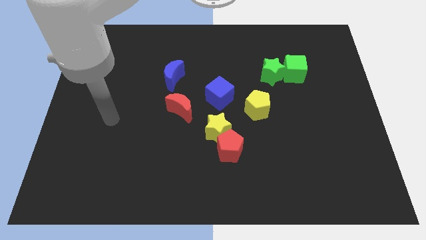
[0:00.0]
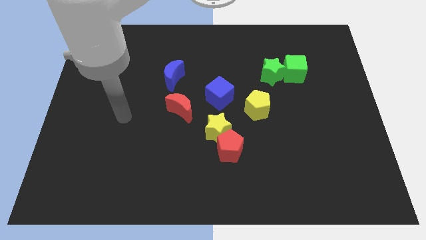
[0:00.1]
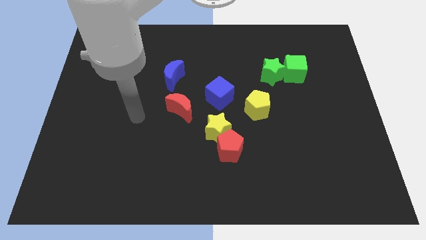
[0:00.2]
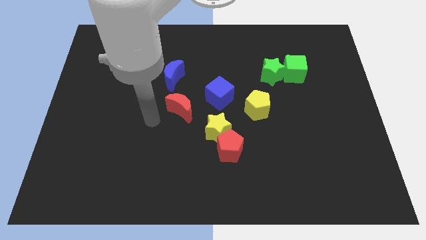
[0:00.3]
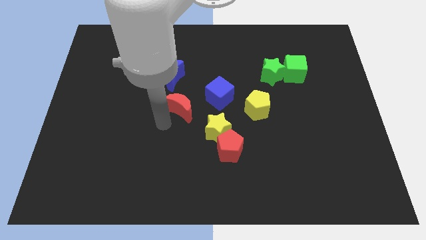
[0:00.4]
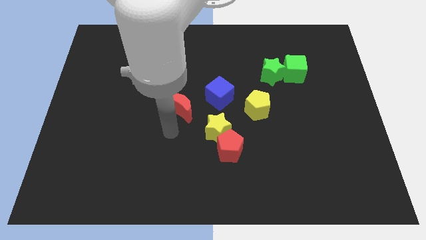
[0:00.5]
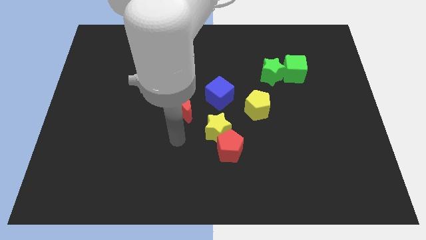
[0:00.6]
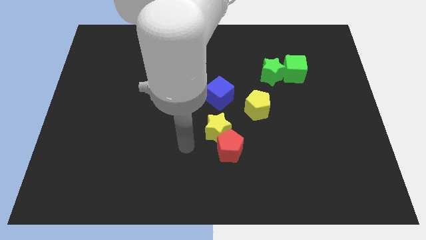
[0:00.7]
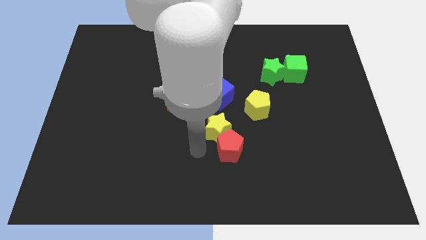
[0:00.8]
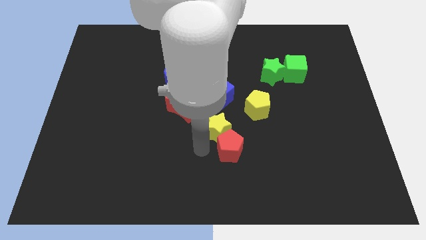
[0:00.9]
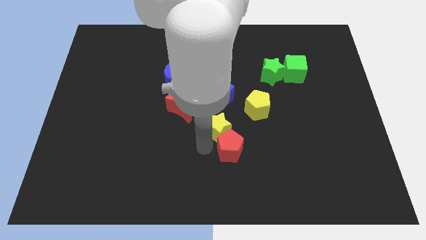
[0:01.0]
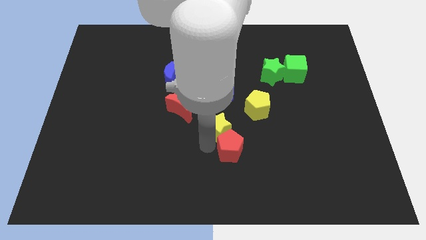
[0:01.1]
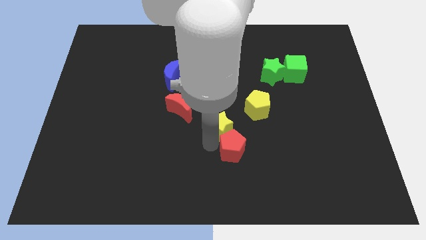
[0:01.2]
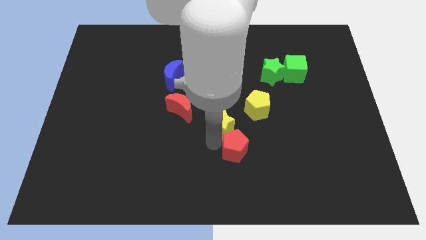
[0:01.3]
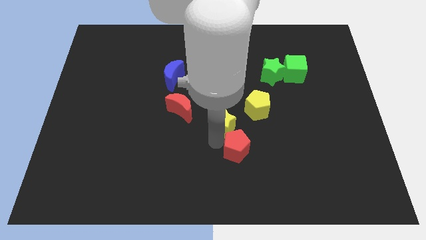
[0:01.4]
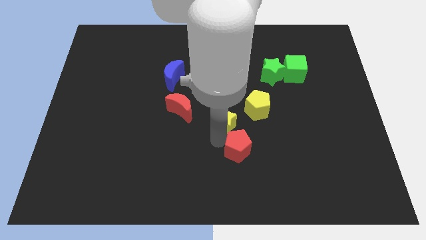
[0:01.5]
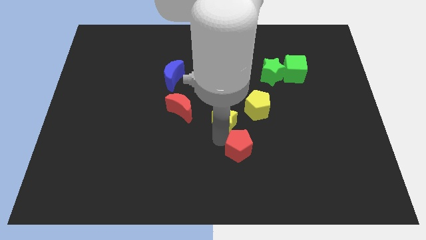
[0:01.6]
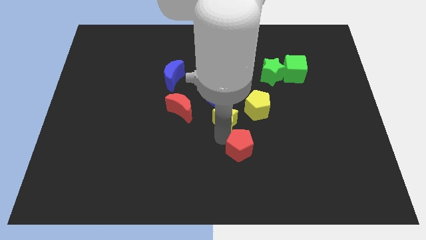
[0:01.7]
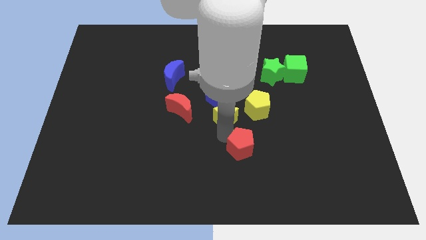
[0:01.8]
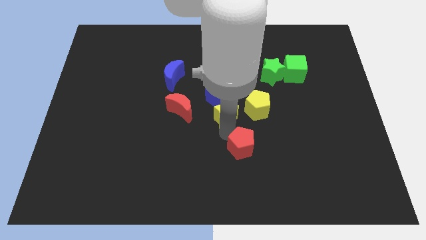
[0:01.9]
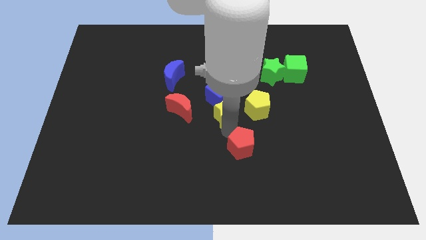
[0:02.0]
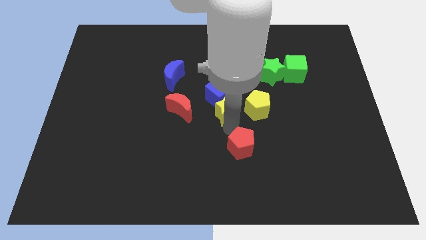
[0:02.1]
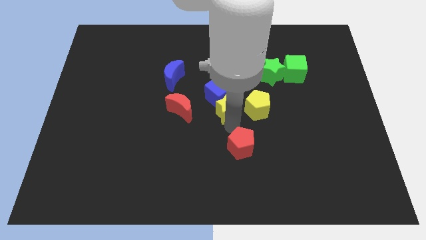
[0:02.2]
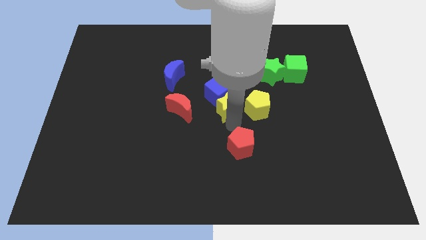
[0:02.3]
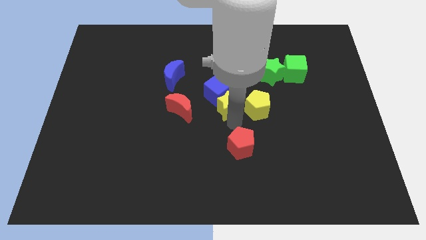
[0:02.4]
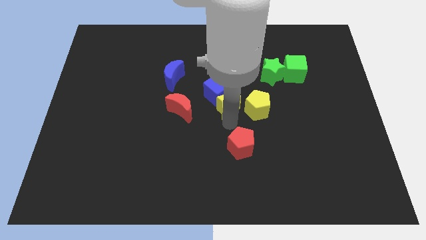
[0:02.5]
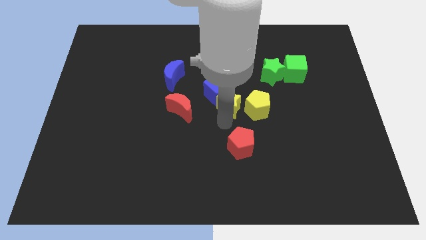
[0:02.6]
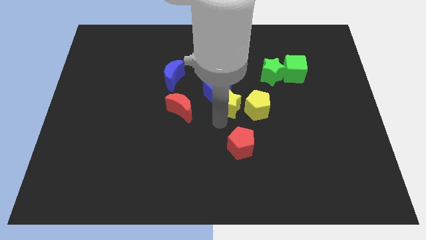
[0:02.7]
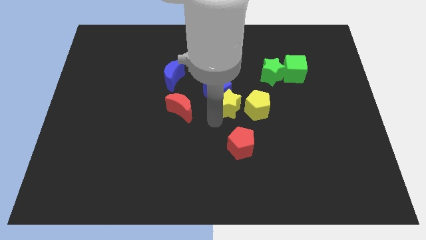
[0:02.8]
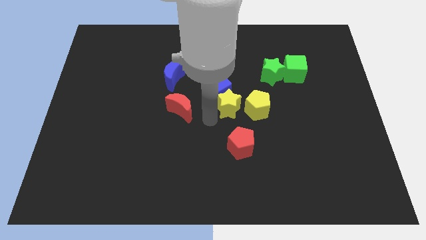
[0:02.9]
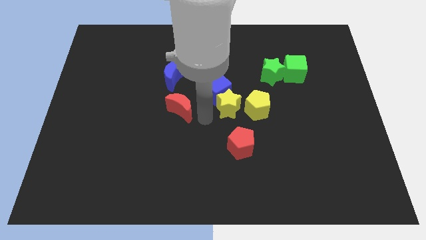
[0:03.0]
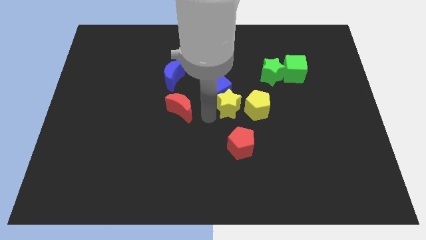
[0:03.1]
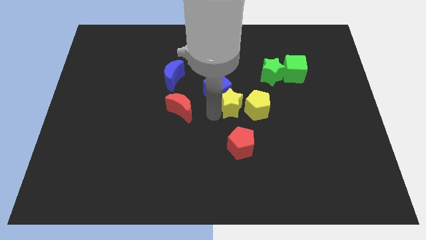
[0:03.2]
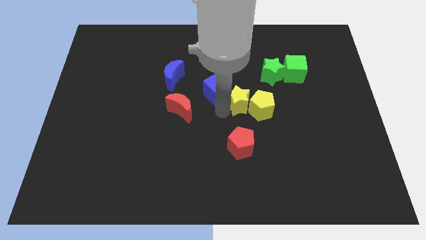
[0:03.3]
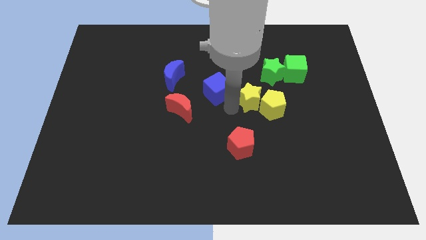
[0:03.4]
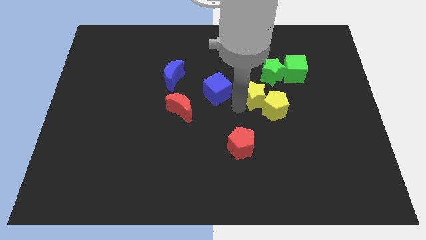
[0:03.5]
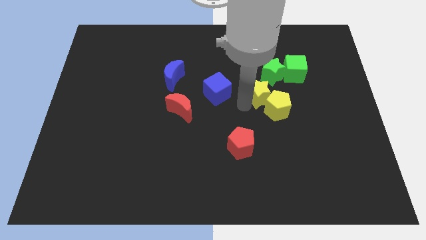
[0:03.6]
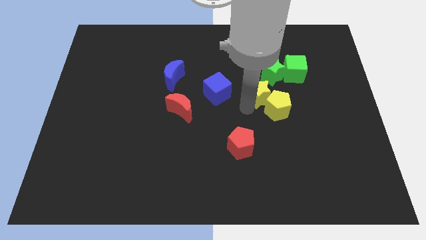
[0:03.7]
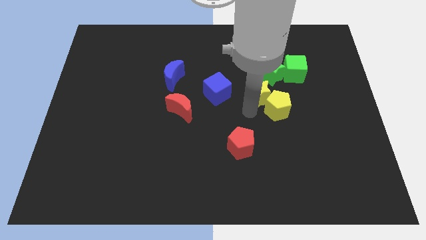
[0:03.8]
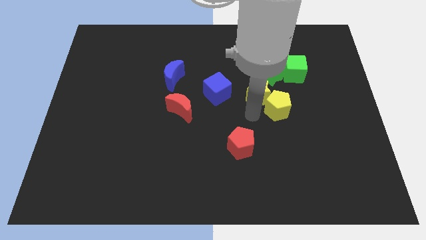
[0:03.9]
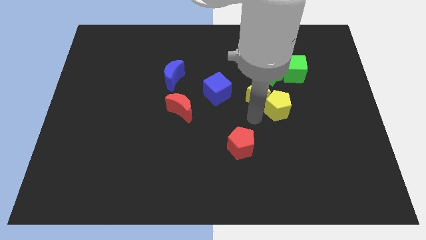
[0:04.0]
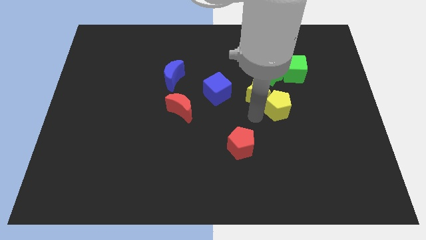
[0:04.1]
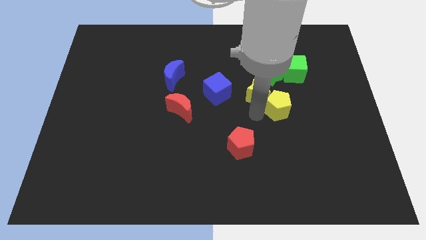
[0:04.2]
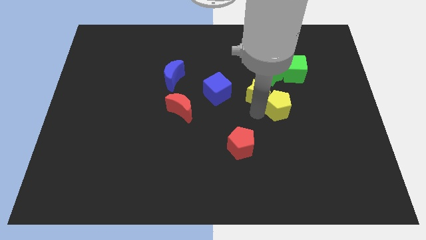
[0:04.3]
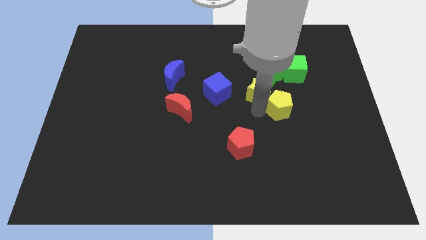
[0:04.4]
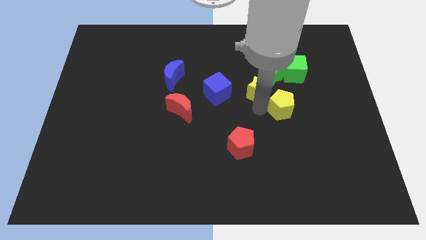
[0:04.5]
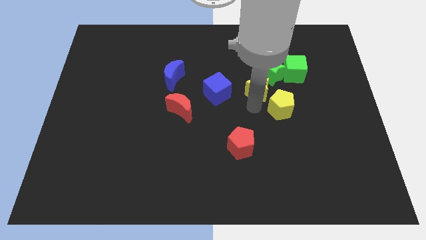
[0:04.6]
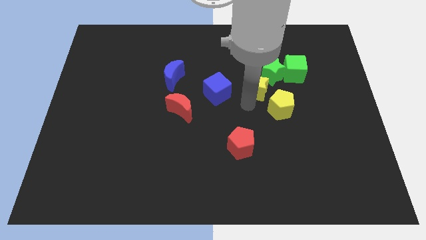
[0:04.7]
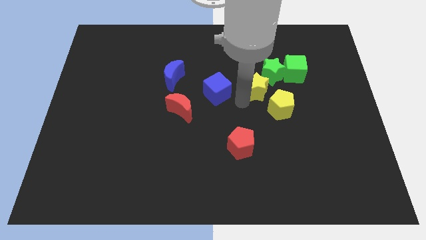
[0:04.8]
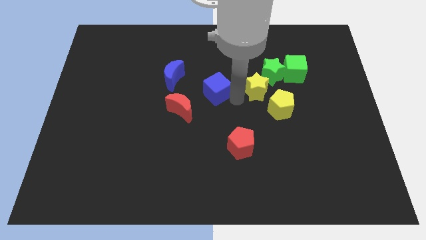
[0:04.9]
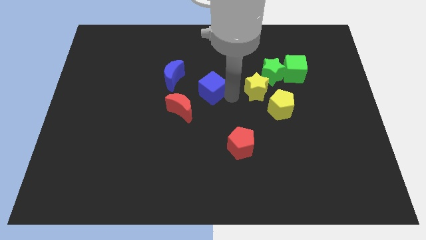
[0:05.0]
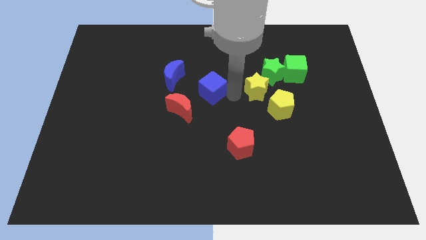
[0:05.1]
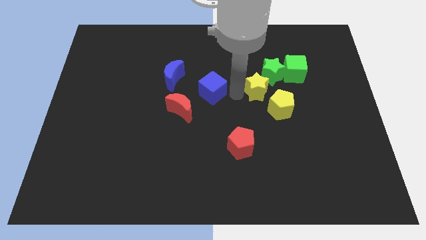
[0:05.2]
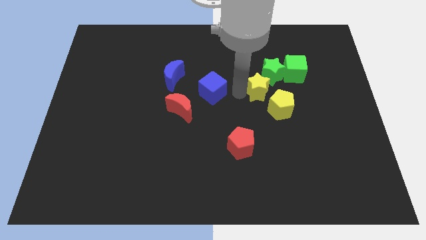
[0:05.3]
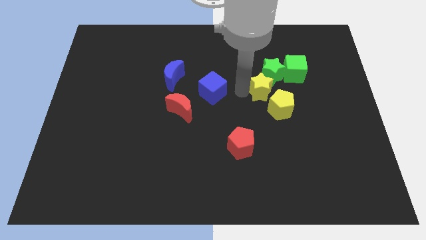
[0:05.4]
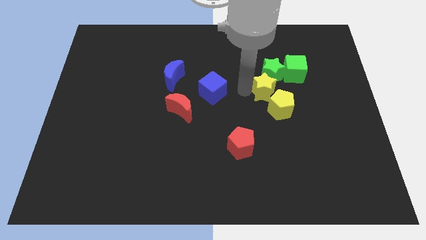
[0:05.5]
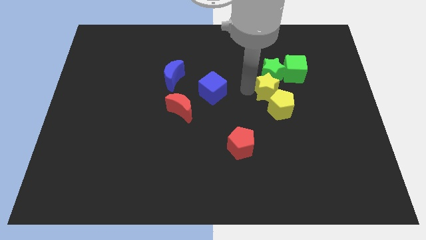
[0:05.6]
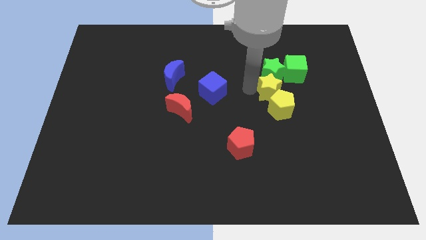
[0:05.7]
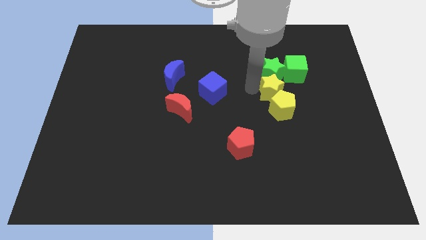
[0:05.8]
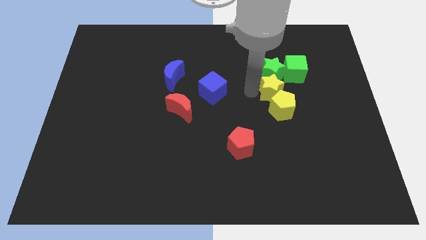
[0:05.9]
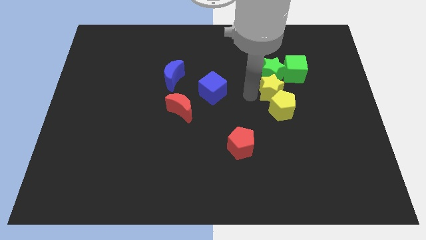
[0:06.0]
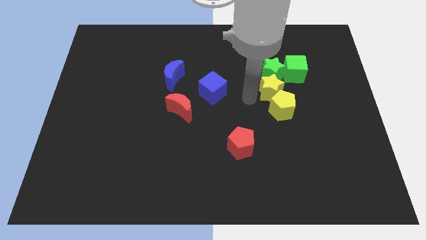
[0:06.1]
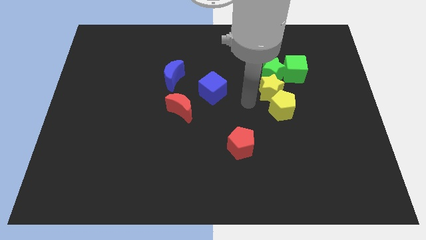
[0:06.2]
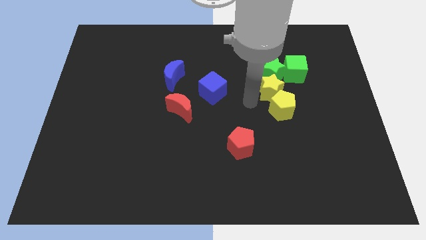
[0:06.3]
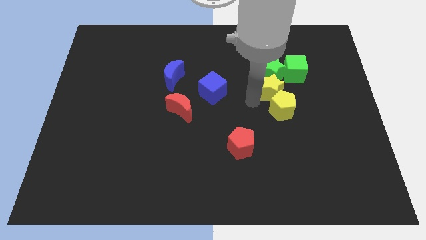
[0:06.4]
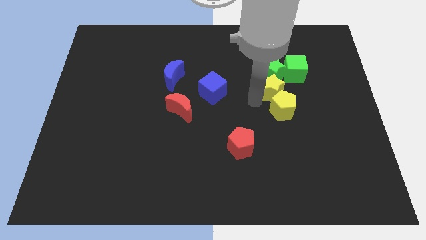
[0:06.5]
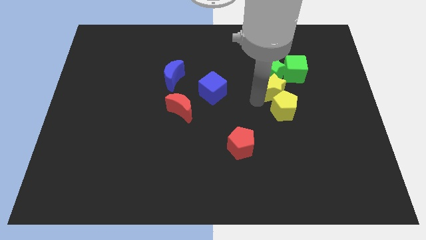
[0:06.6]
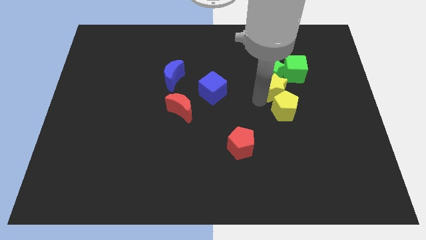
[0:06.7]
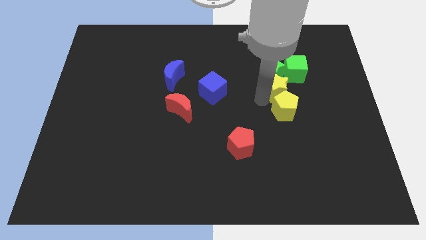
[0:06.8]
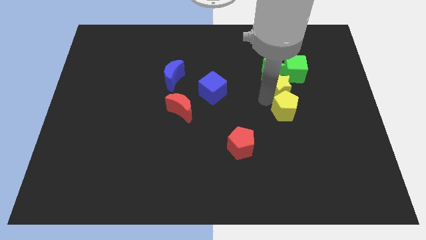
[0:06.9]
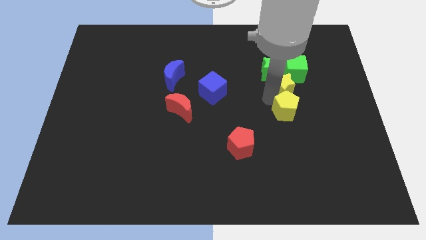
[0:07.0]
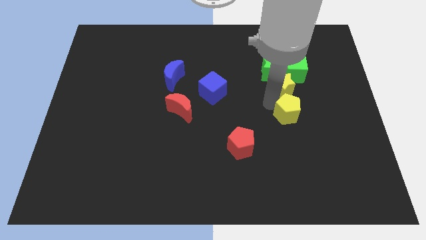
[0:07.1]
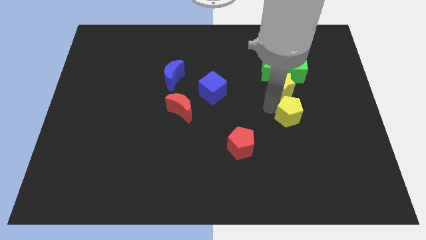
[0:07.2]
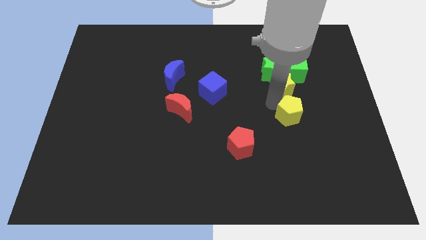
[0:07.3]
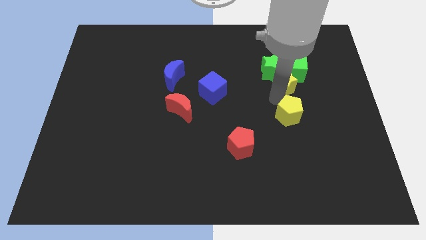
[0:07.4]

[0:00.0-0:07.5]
put the yellow star to the green cube
